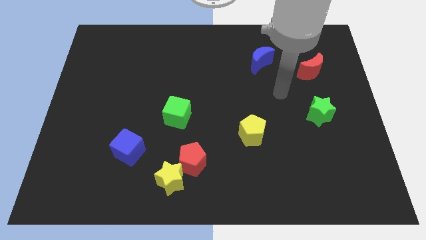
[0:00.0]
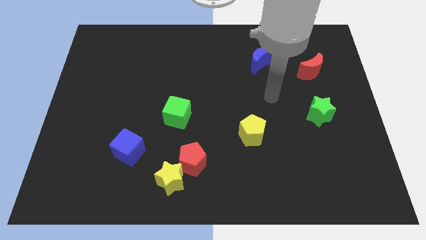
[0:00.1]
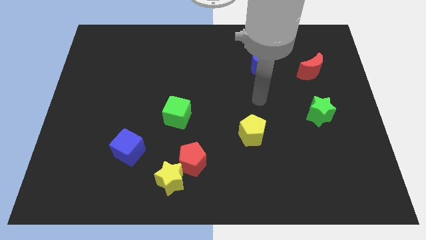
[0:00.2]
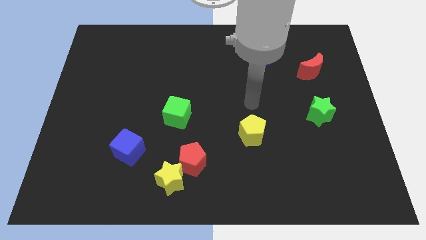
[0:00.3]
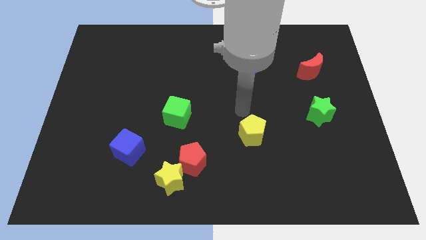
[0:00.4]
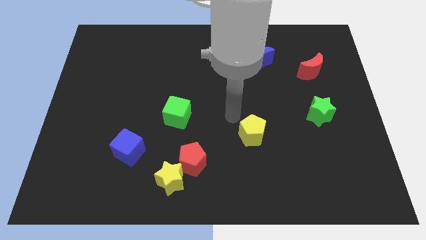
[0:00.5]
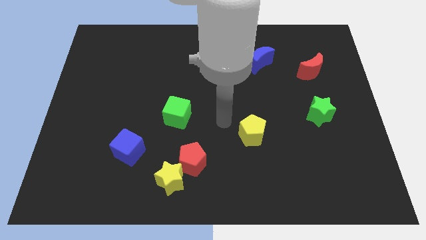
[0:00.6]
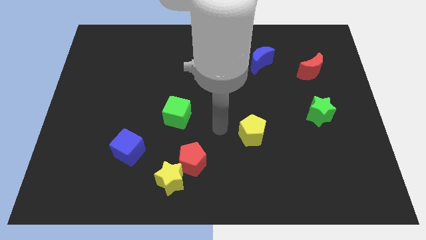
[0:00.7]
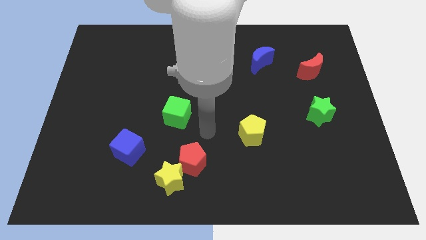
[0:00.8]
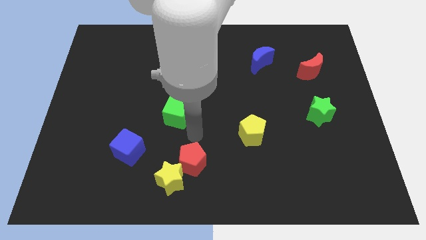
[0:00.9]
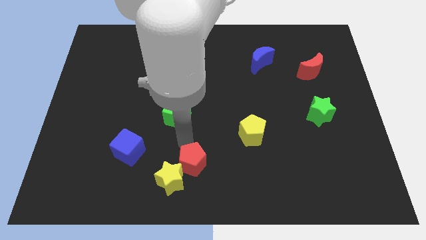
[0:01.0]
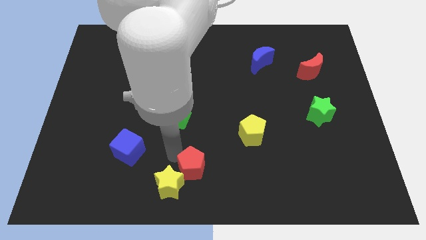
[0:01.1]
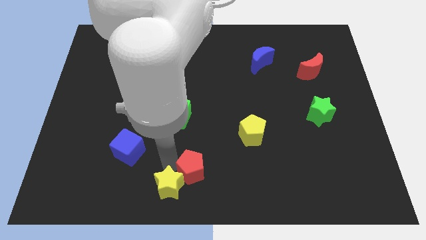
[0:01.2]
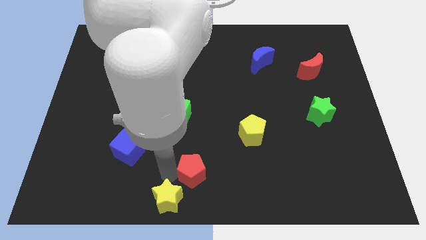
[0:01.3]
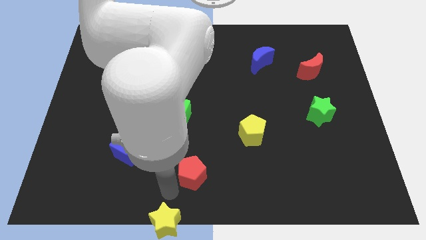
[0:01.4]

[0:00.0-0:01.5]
pull the red pentagon apart from the yellow star

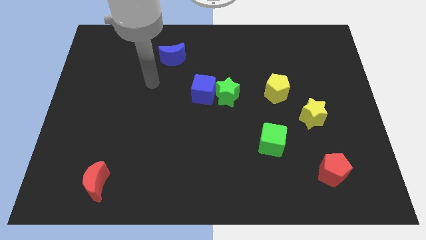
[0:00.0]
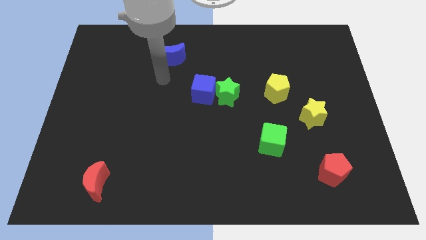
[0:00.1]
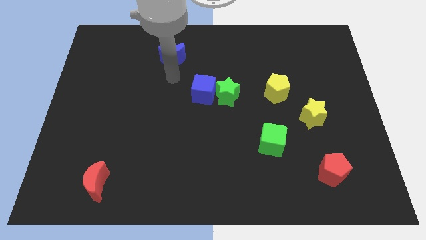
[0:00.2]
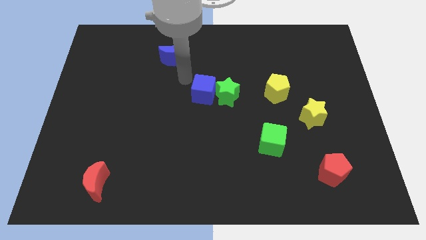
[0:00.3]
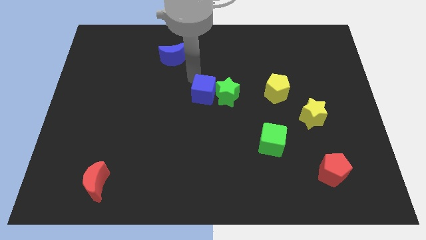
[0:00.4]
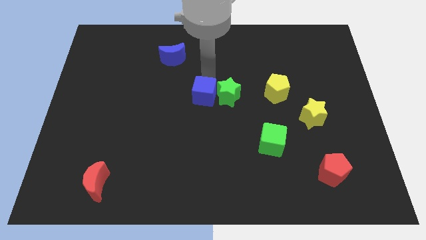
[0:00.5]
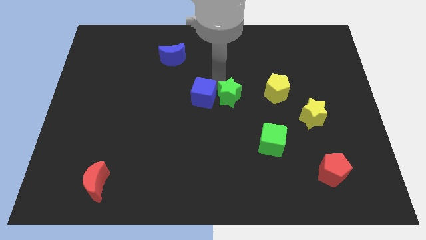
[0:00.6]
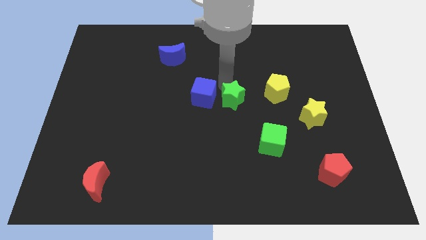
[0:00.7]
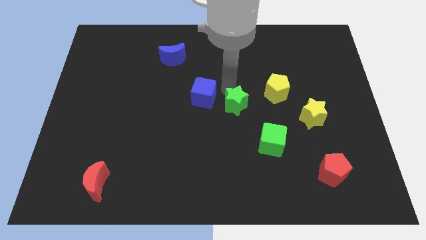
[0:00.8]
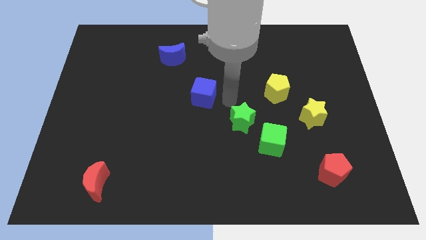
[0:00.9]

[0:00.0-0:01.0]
move the blue cube away from the green star

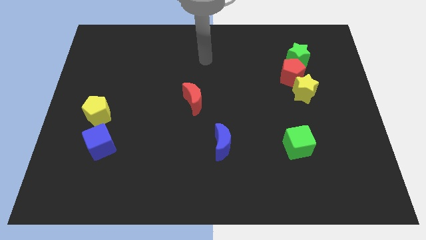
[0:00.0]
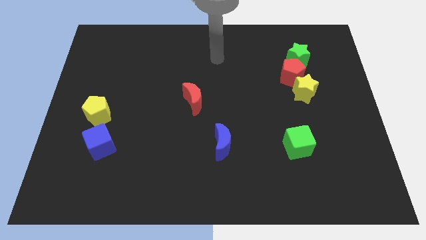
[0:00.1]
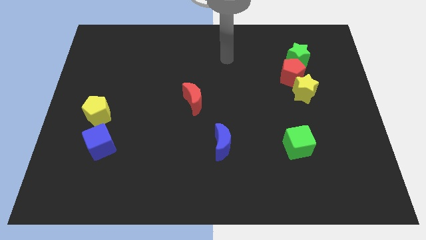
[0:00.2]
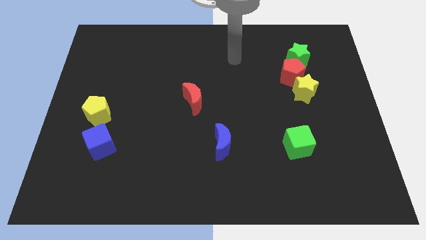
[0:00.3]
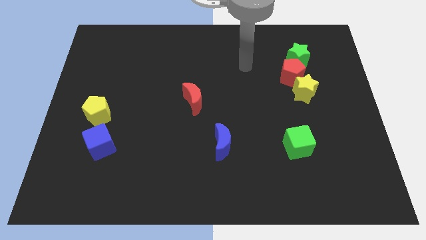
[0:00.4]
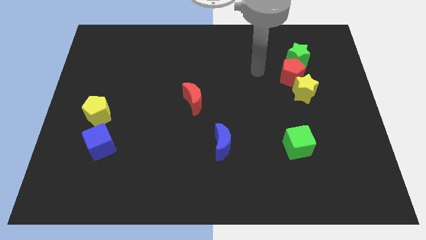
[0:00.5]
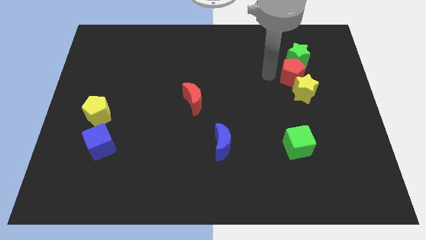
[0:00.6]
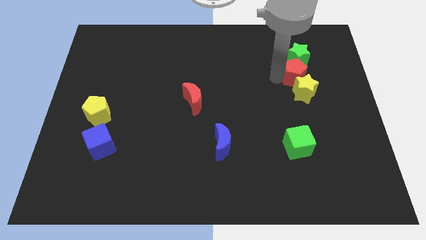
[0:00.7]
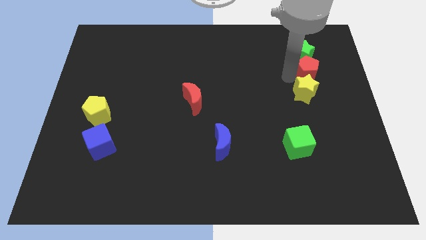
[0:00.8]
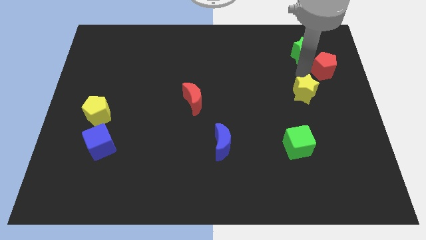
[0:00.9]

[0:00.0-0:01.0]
move the yellow star away from the red pentagon

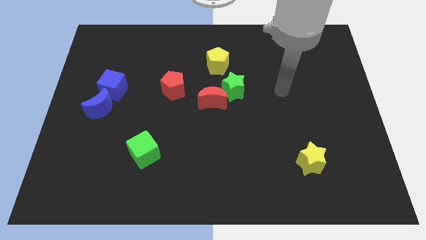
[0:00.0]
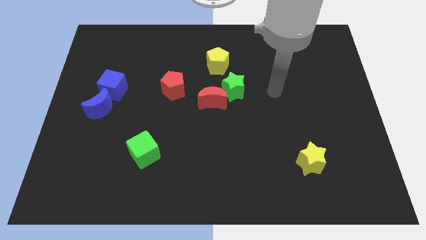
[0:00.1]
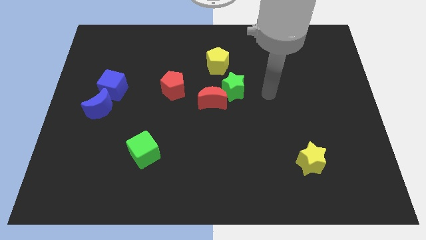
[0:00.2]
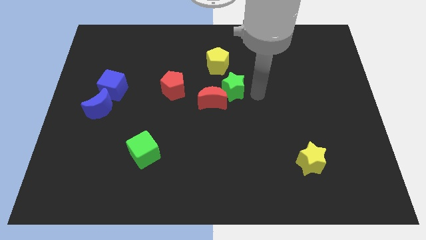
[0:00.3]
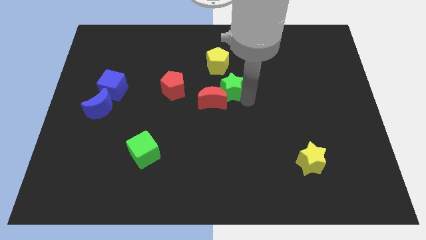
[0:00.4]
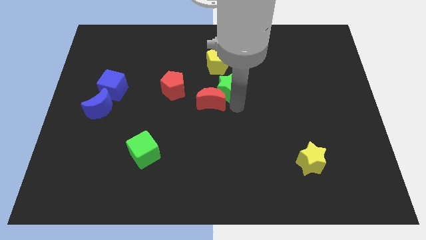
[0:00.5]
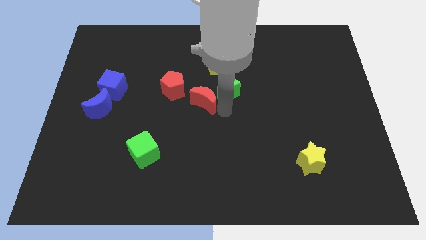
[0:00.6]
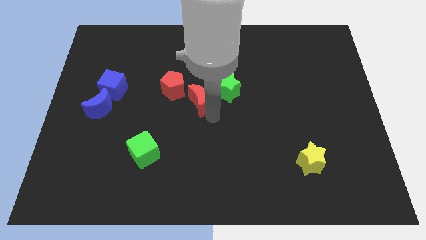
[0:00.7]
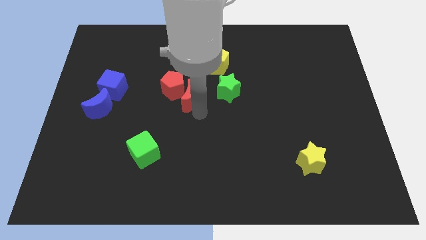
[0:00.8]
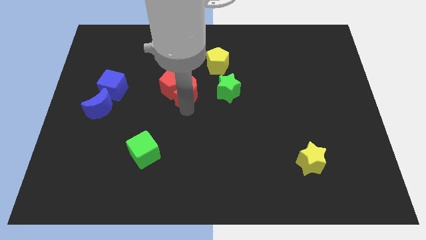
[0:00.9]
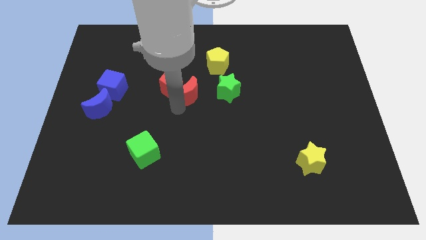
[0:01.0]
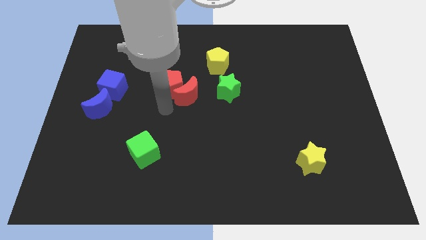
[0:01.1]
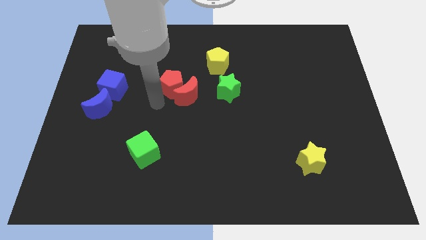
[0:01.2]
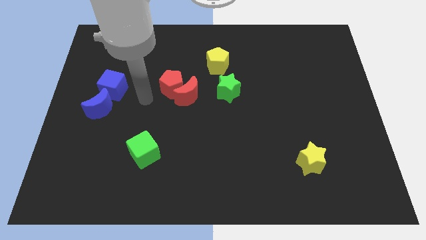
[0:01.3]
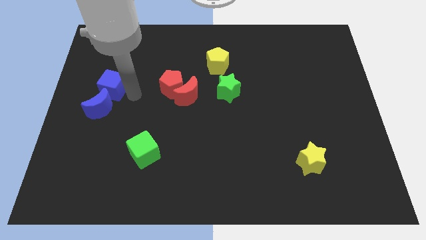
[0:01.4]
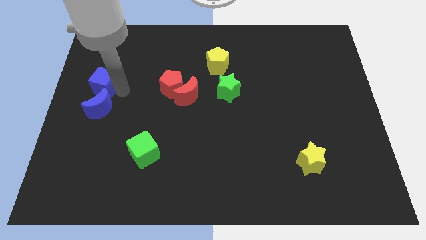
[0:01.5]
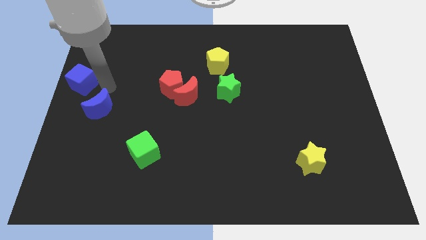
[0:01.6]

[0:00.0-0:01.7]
separate the blue moon from the blue cube

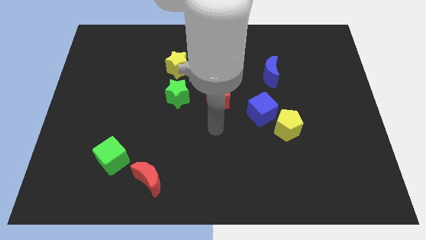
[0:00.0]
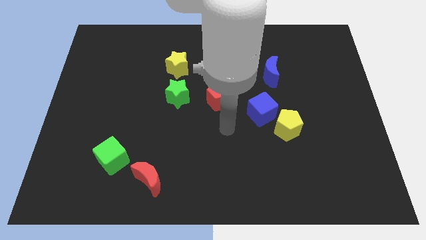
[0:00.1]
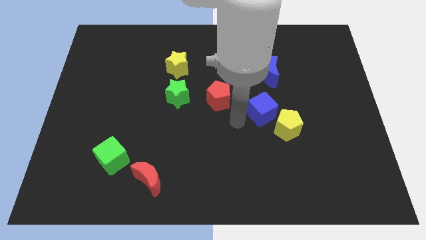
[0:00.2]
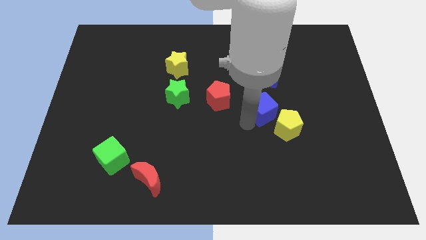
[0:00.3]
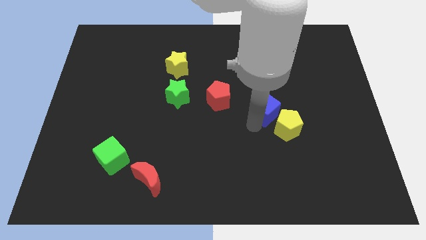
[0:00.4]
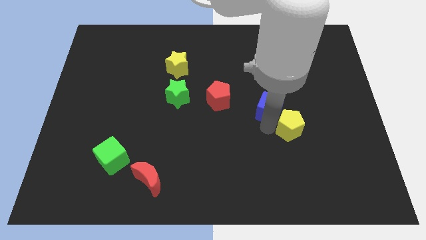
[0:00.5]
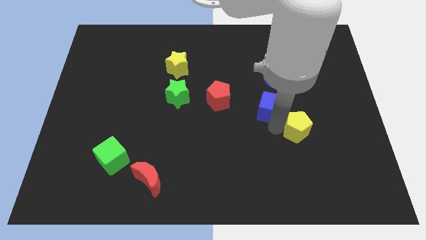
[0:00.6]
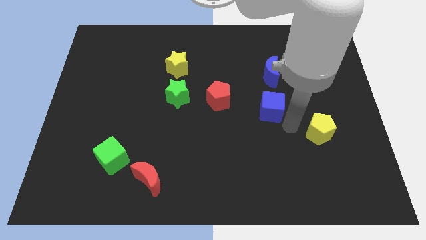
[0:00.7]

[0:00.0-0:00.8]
pull the blue cube apart from the yellow pentagon

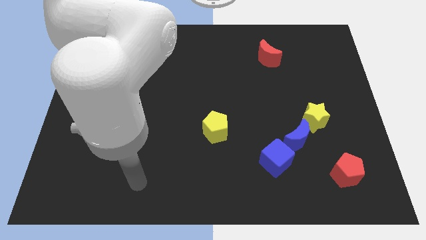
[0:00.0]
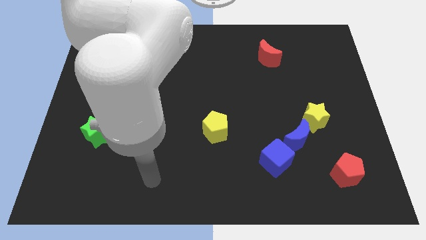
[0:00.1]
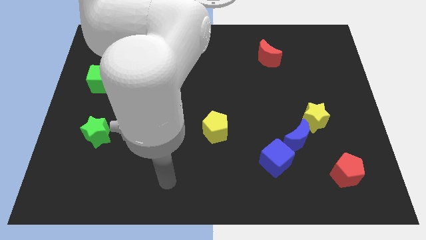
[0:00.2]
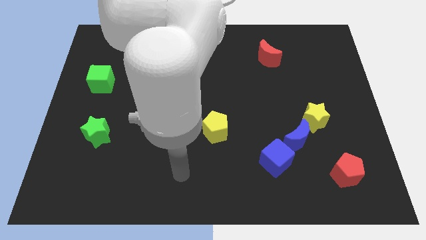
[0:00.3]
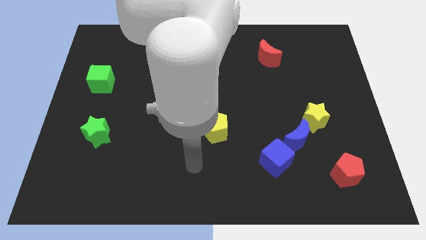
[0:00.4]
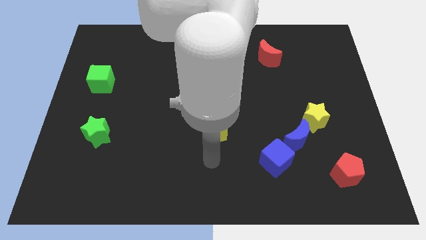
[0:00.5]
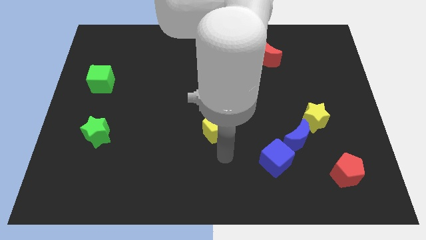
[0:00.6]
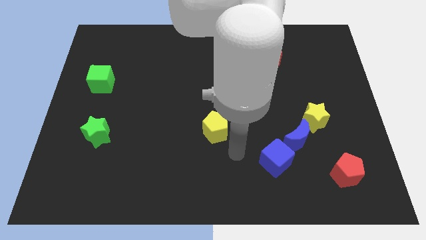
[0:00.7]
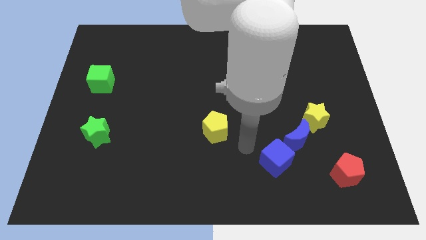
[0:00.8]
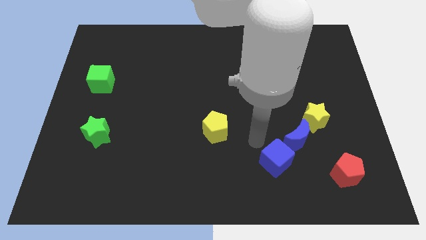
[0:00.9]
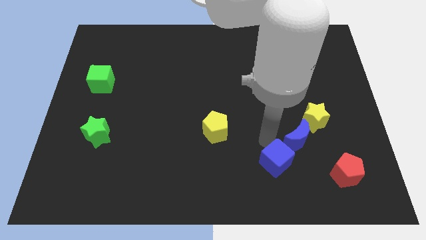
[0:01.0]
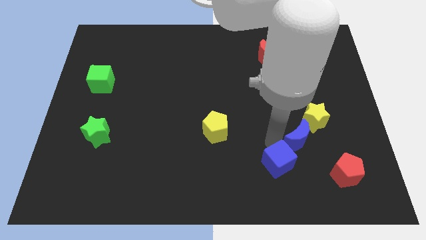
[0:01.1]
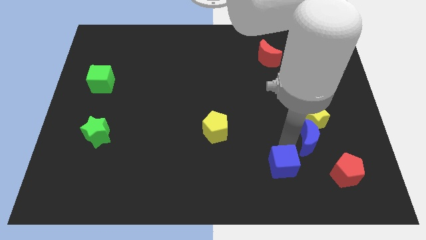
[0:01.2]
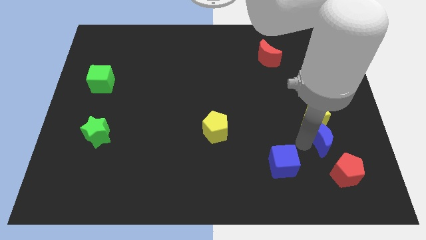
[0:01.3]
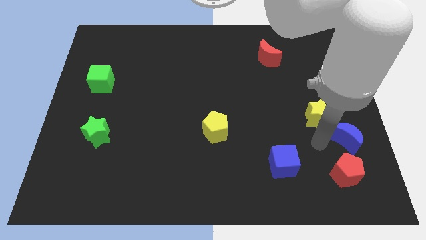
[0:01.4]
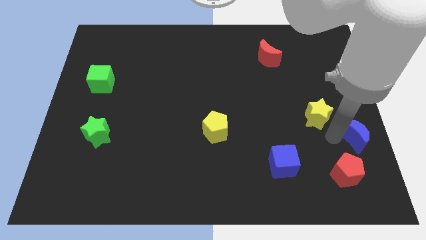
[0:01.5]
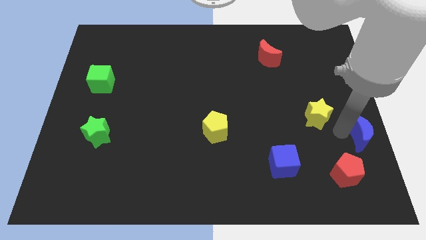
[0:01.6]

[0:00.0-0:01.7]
pull the yellow star apart from the blue moon

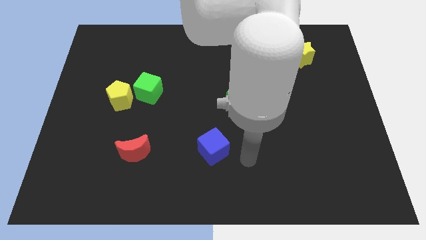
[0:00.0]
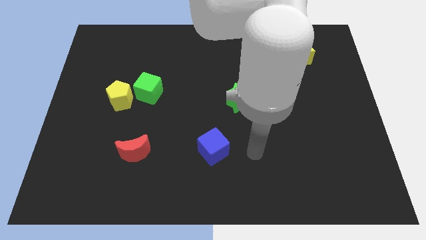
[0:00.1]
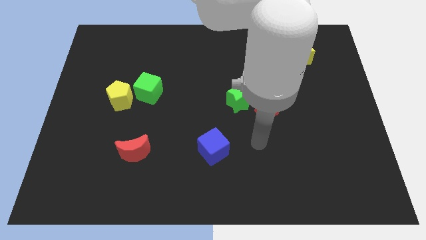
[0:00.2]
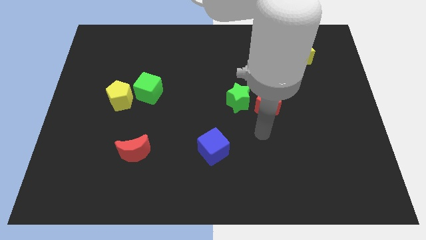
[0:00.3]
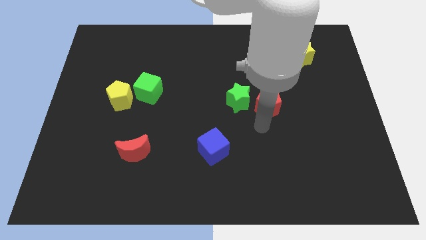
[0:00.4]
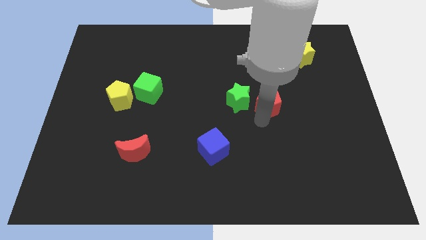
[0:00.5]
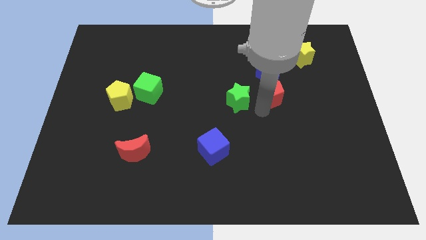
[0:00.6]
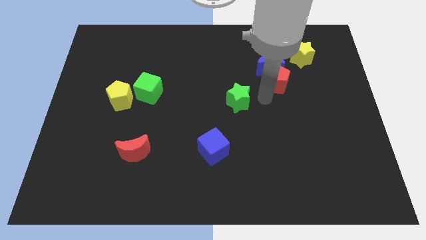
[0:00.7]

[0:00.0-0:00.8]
pull the green star apart from the red pentagon

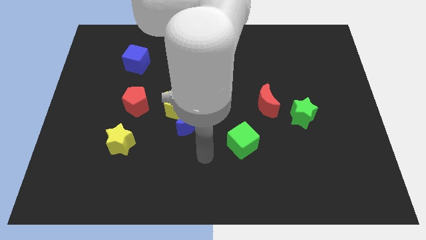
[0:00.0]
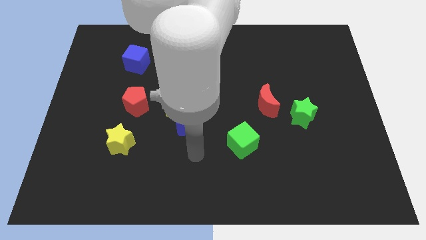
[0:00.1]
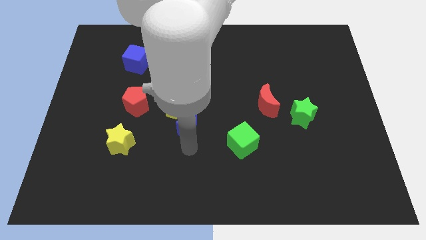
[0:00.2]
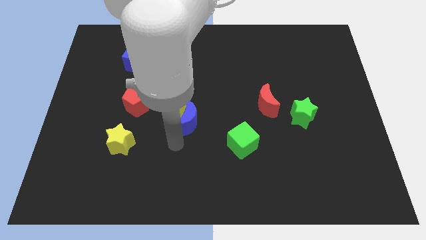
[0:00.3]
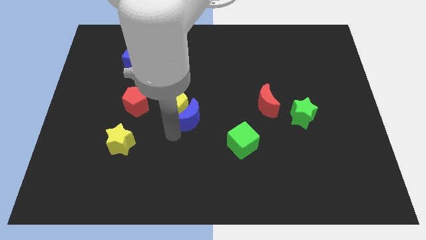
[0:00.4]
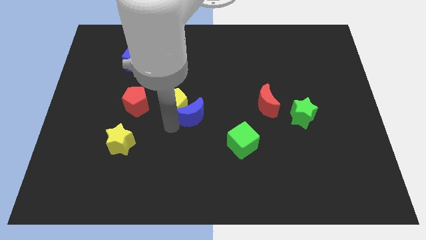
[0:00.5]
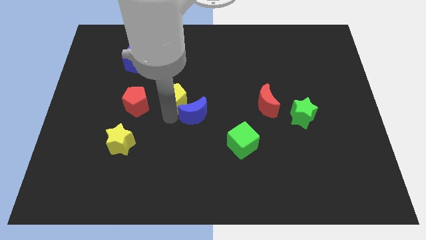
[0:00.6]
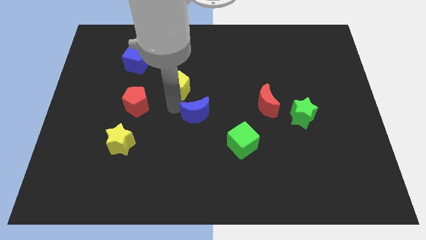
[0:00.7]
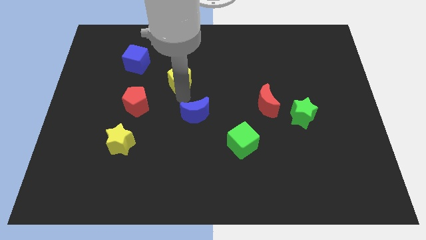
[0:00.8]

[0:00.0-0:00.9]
move the blue moon away from the yellow pentagon
